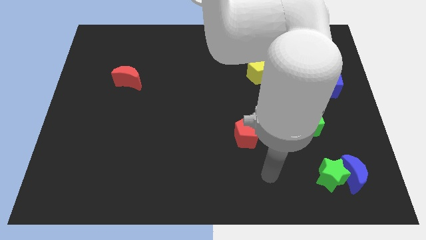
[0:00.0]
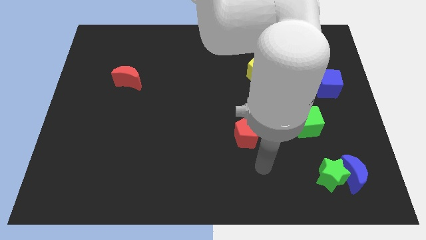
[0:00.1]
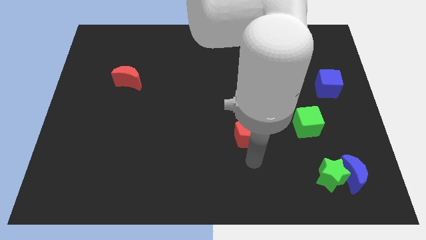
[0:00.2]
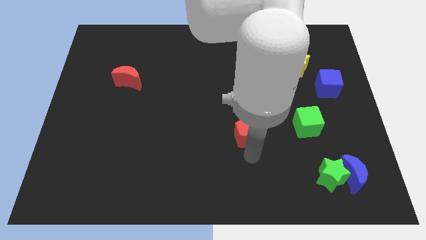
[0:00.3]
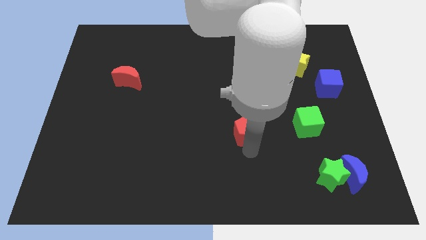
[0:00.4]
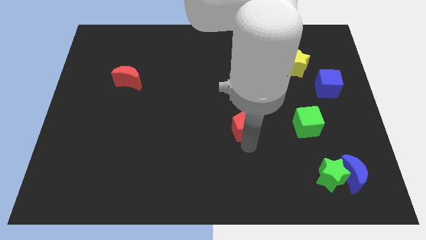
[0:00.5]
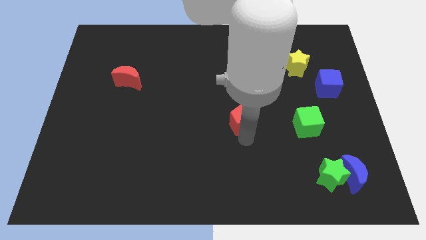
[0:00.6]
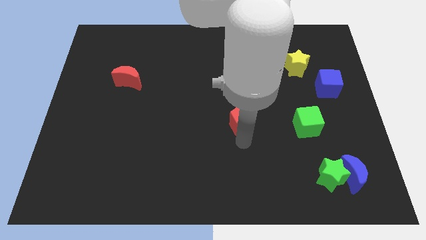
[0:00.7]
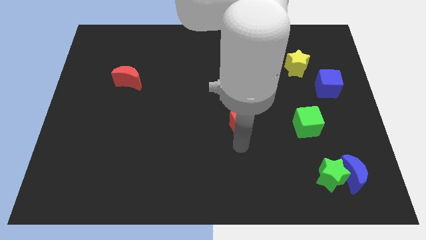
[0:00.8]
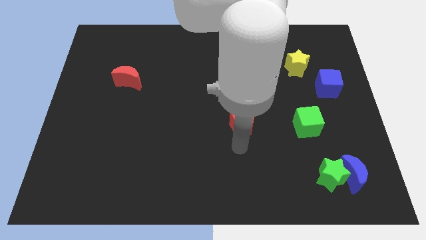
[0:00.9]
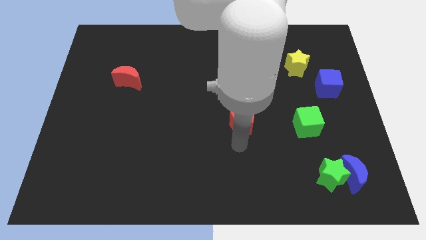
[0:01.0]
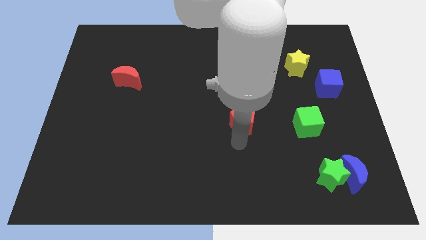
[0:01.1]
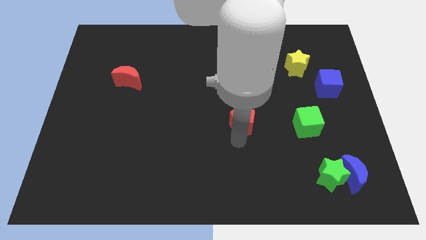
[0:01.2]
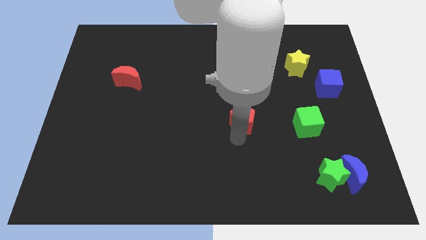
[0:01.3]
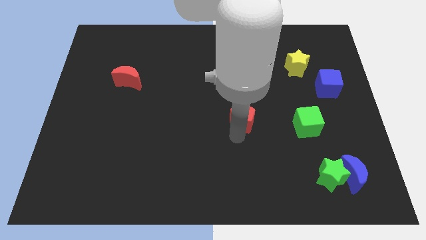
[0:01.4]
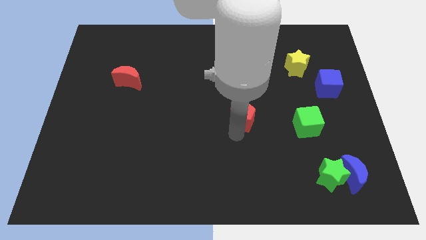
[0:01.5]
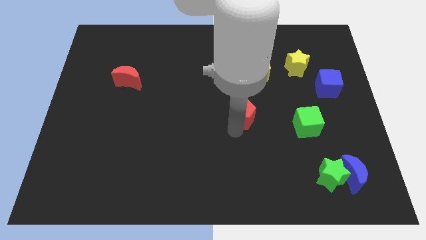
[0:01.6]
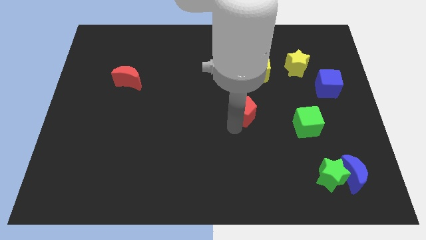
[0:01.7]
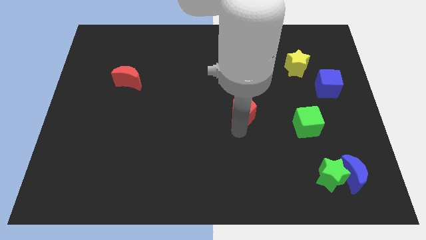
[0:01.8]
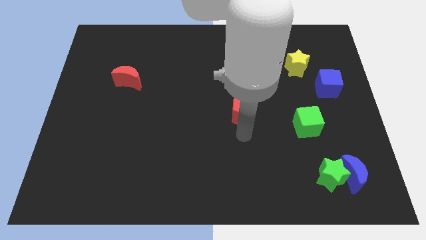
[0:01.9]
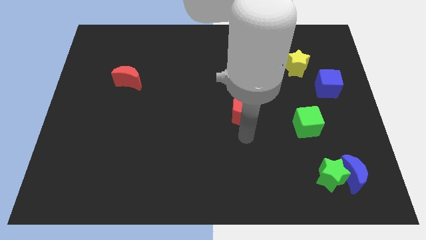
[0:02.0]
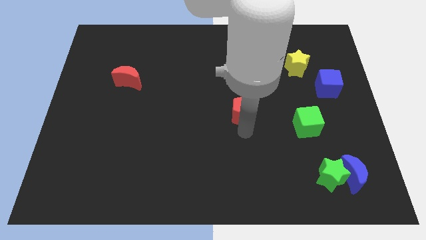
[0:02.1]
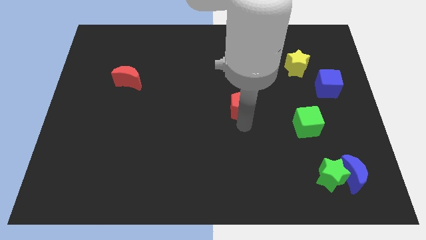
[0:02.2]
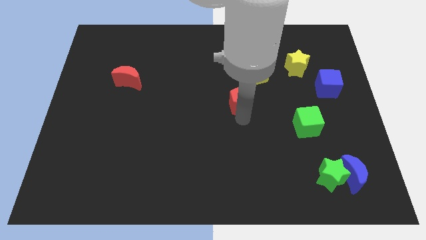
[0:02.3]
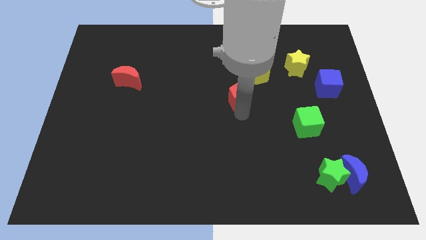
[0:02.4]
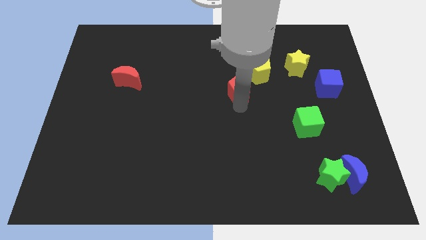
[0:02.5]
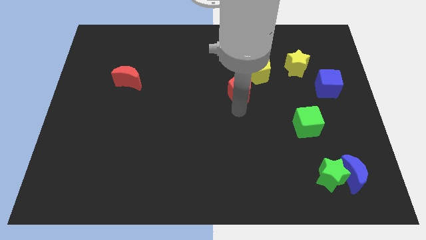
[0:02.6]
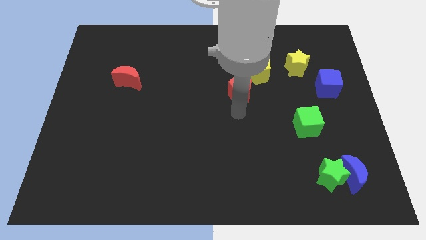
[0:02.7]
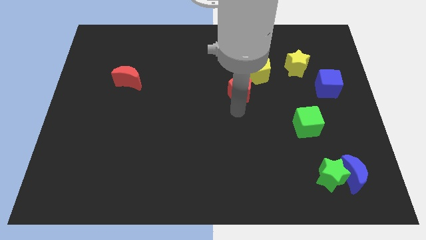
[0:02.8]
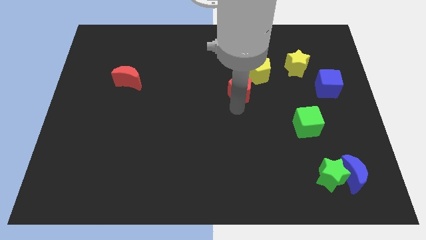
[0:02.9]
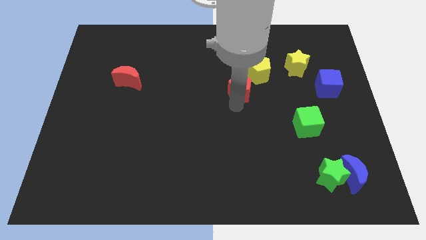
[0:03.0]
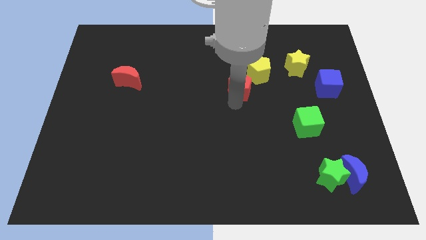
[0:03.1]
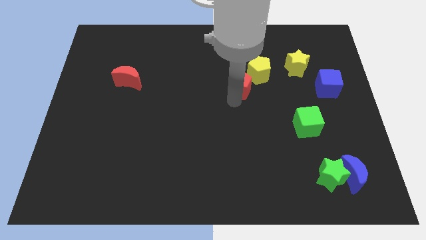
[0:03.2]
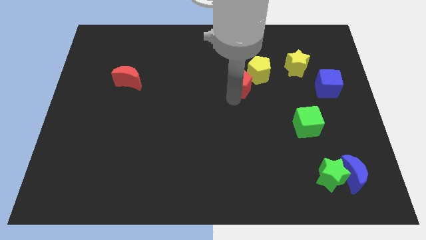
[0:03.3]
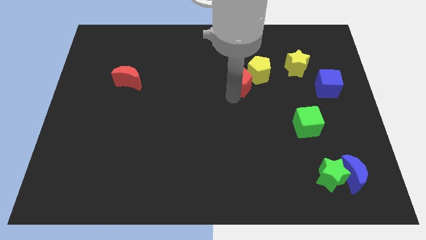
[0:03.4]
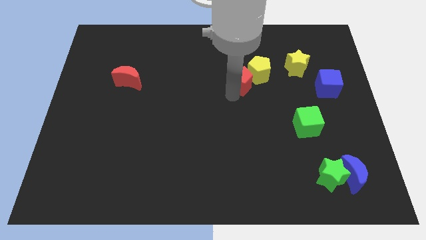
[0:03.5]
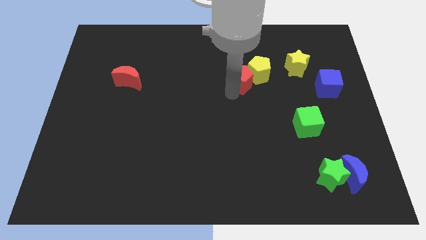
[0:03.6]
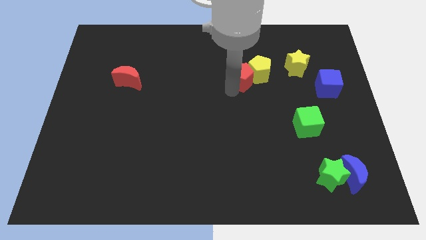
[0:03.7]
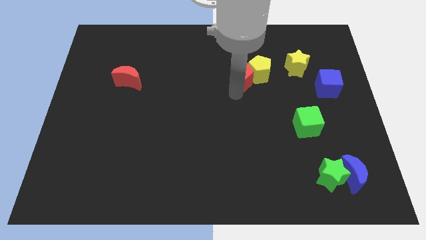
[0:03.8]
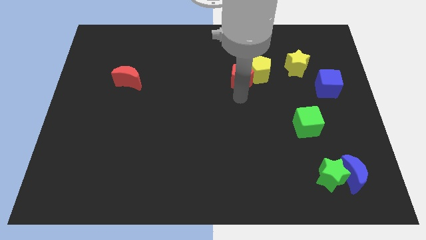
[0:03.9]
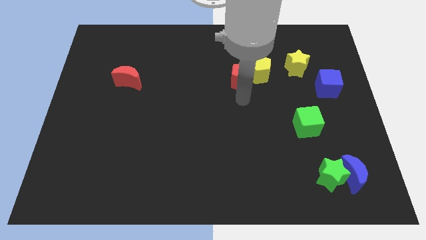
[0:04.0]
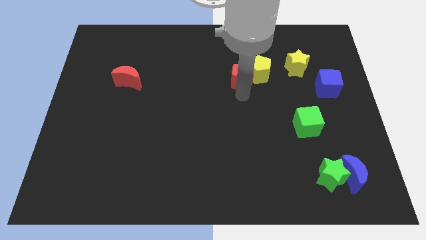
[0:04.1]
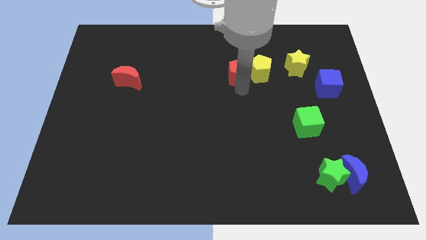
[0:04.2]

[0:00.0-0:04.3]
put the red pentagon diagonally up and to the left of the yellow pentagon

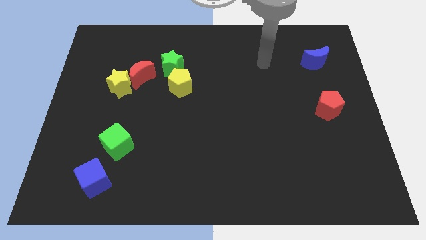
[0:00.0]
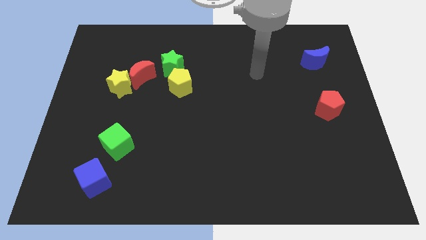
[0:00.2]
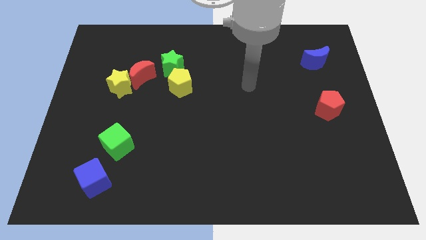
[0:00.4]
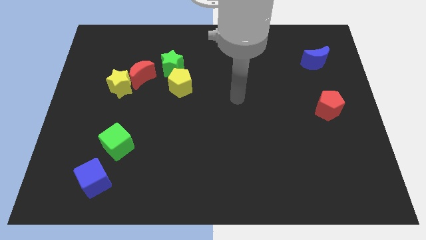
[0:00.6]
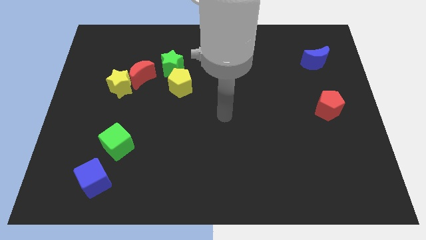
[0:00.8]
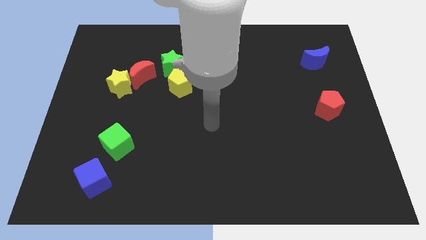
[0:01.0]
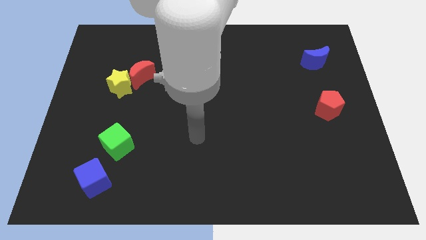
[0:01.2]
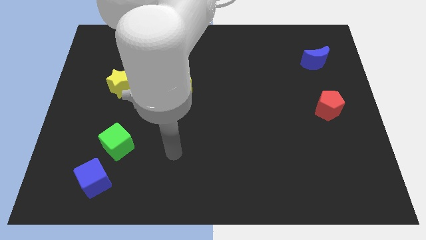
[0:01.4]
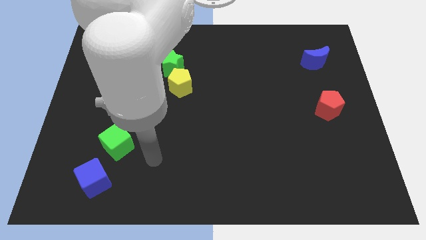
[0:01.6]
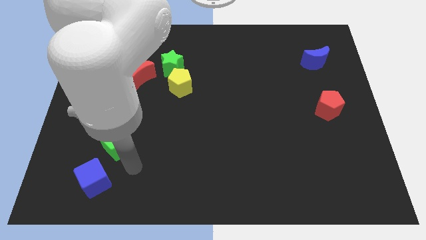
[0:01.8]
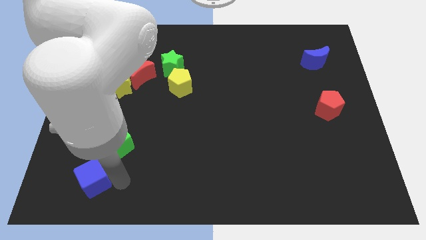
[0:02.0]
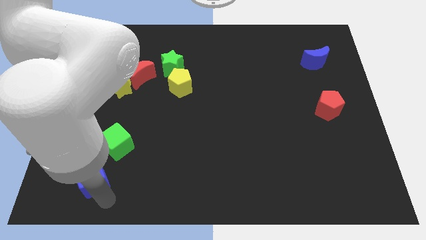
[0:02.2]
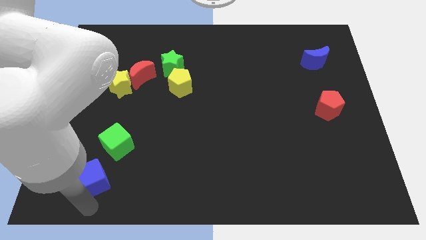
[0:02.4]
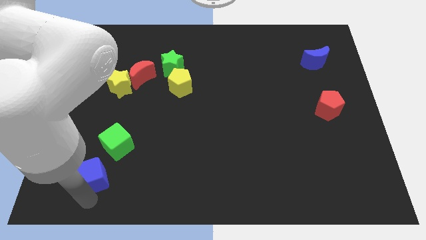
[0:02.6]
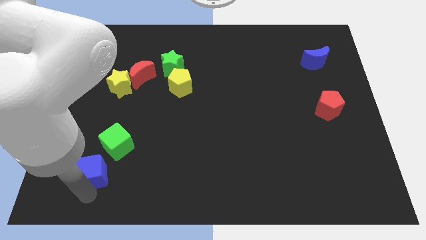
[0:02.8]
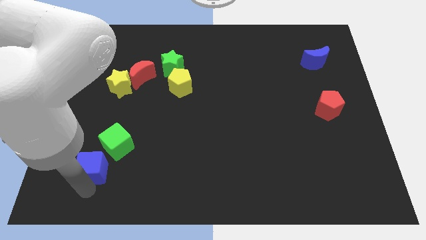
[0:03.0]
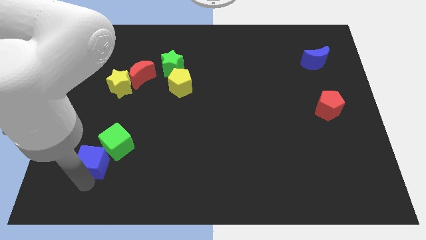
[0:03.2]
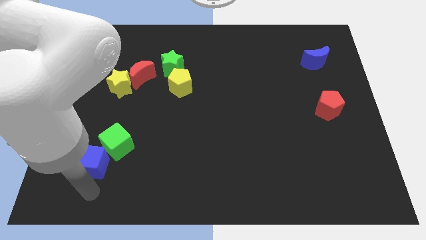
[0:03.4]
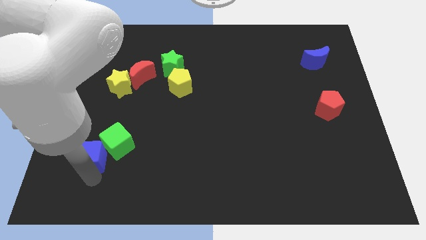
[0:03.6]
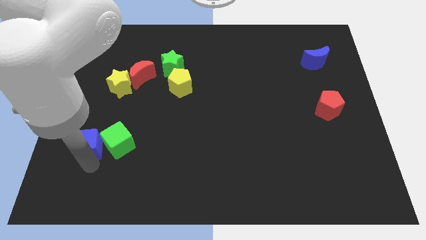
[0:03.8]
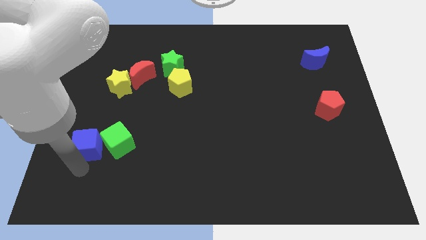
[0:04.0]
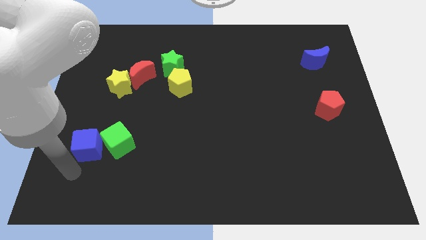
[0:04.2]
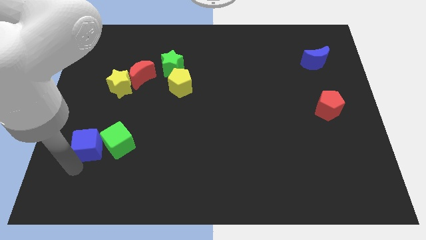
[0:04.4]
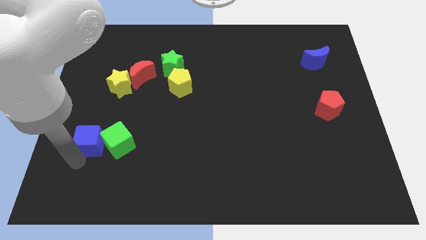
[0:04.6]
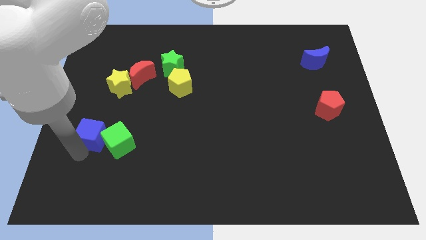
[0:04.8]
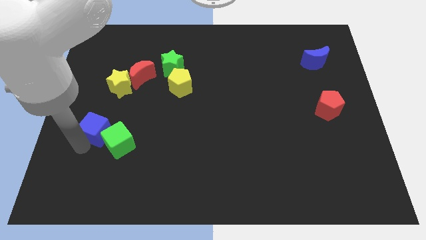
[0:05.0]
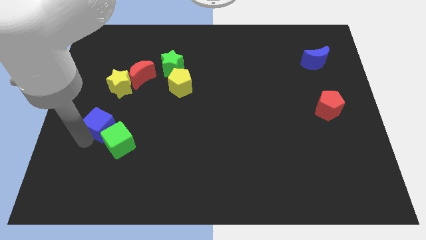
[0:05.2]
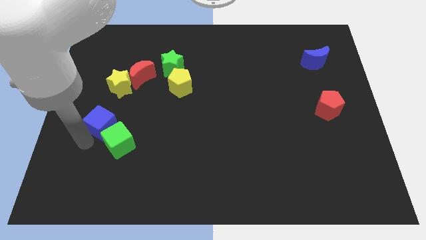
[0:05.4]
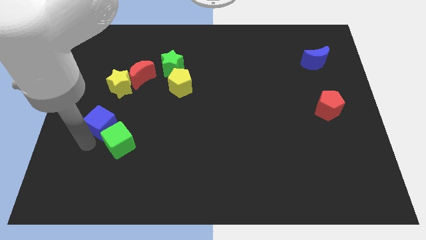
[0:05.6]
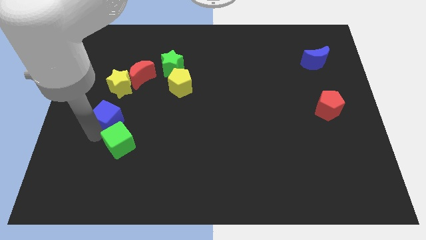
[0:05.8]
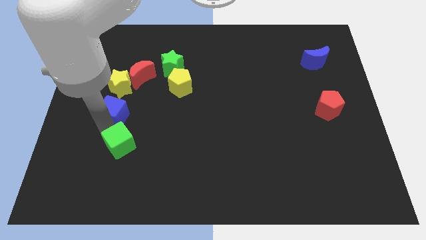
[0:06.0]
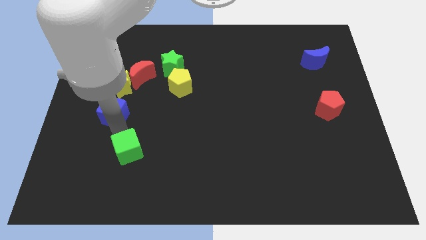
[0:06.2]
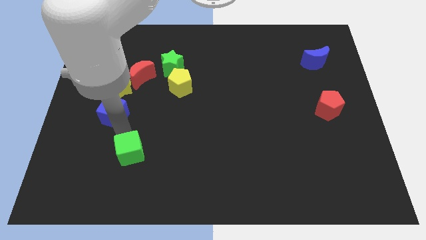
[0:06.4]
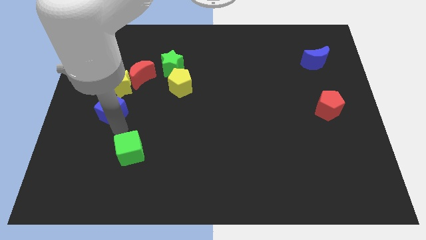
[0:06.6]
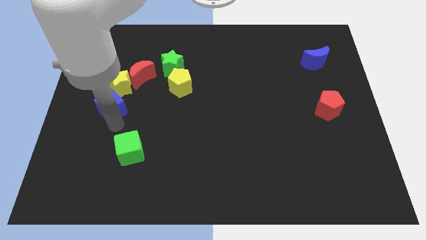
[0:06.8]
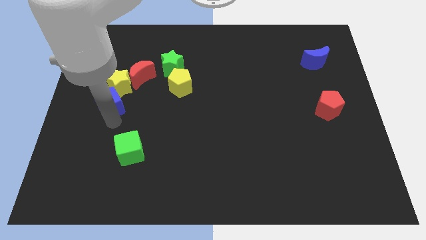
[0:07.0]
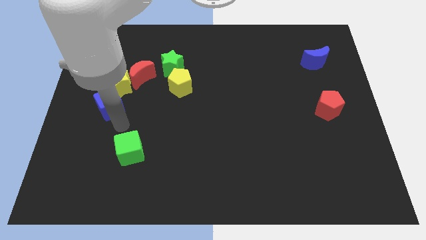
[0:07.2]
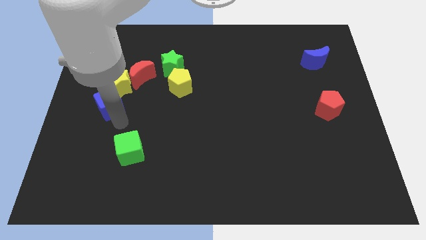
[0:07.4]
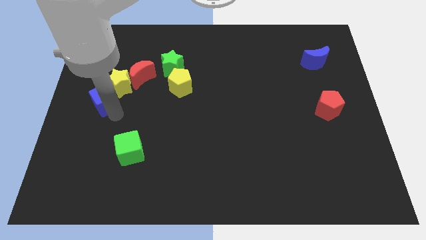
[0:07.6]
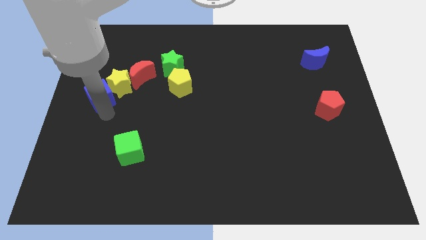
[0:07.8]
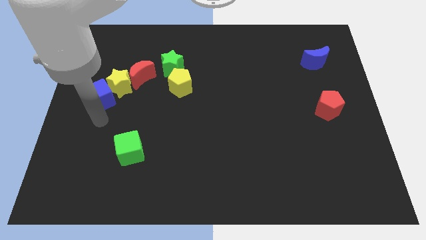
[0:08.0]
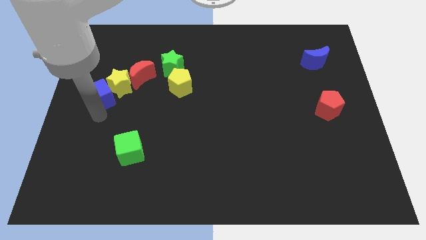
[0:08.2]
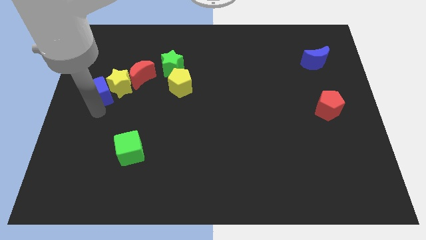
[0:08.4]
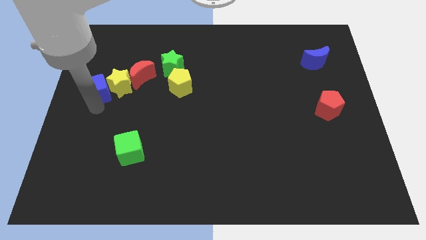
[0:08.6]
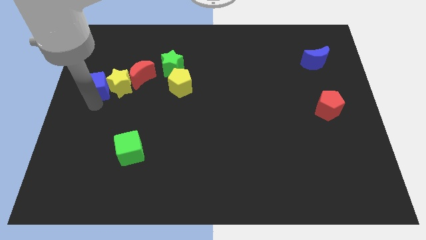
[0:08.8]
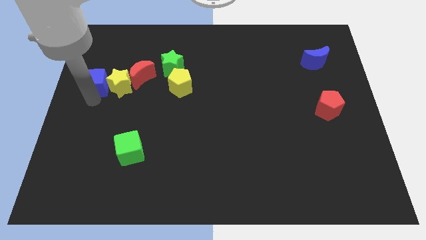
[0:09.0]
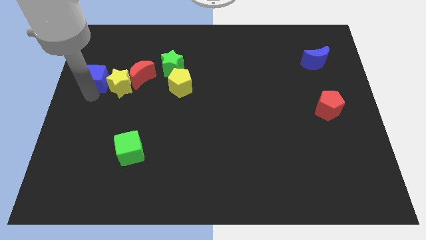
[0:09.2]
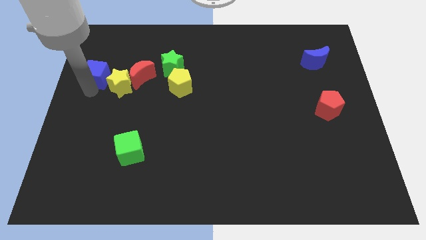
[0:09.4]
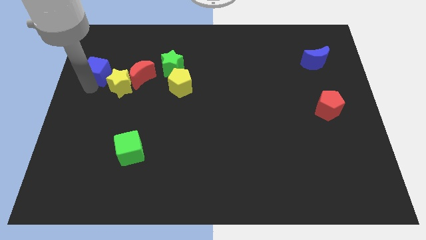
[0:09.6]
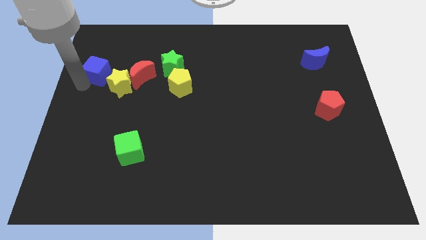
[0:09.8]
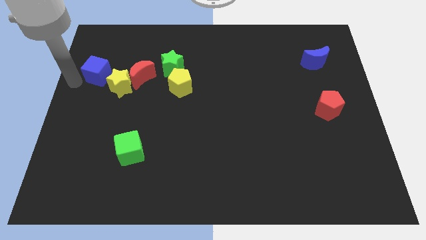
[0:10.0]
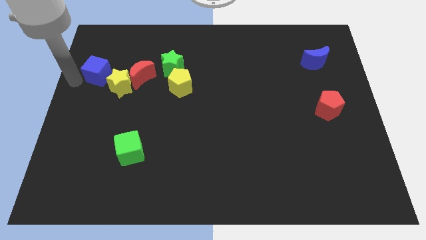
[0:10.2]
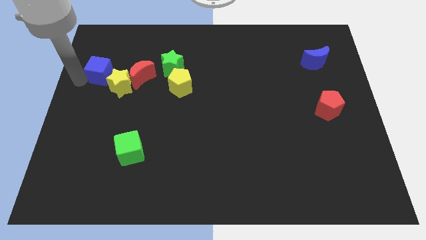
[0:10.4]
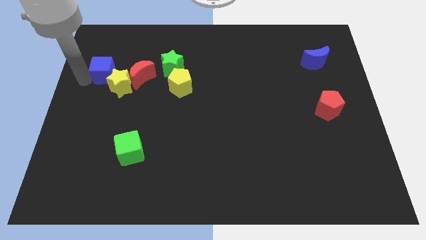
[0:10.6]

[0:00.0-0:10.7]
slide the blue cube to the top of the yellow star
